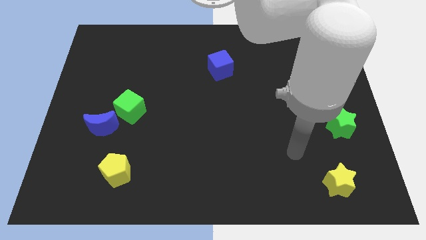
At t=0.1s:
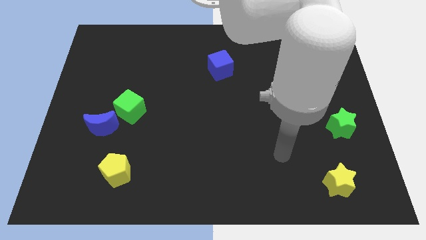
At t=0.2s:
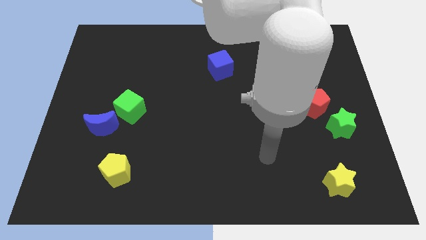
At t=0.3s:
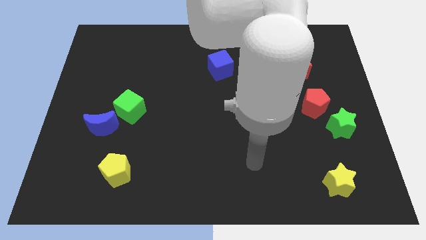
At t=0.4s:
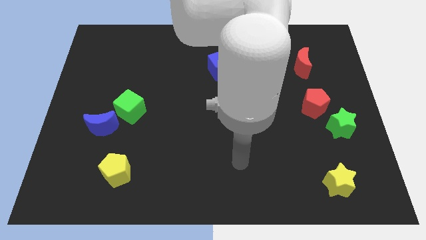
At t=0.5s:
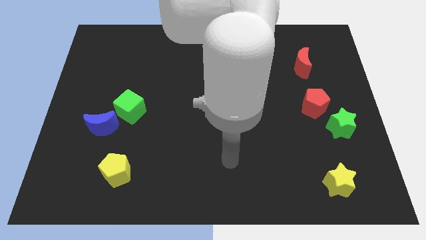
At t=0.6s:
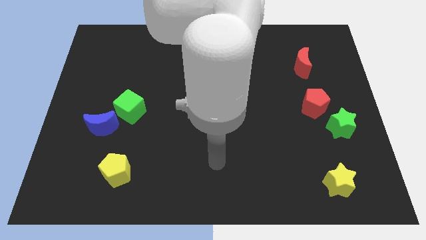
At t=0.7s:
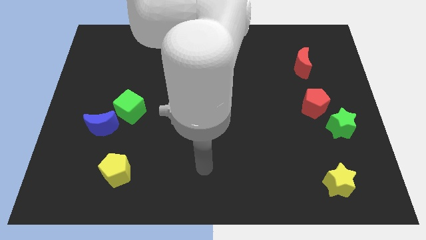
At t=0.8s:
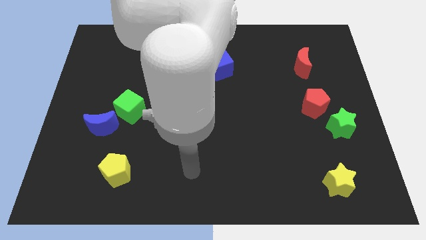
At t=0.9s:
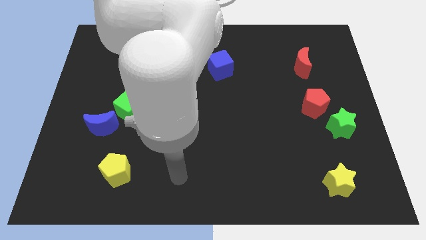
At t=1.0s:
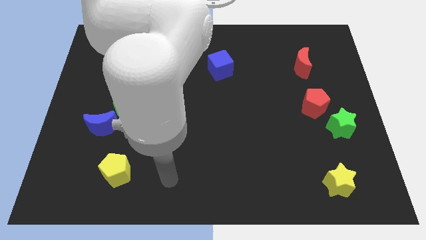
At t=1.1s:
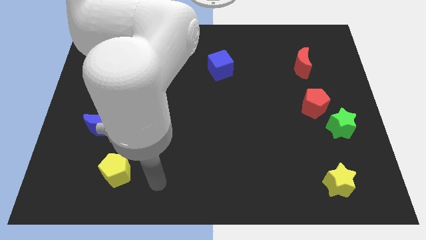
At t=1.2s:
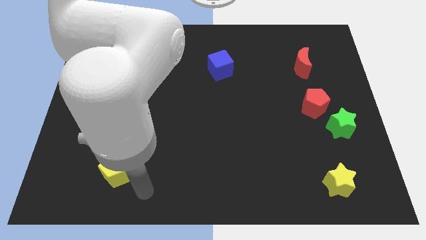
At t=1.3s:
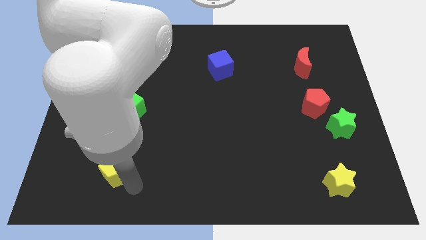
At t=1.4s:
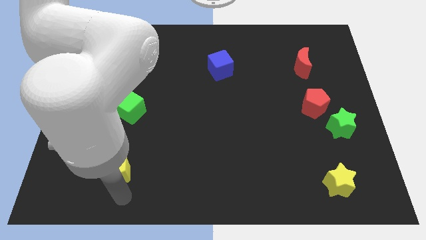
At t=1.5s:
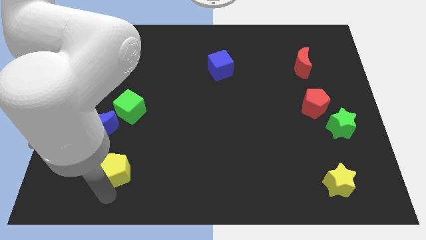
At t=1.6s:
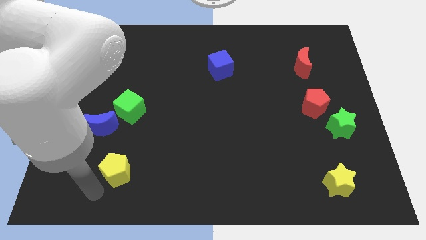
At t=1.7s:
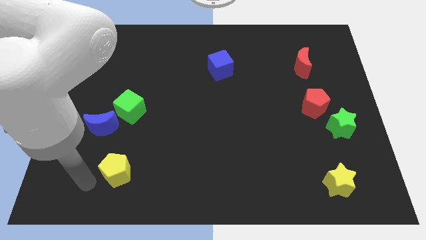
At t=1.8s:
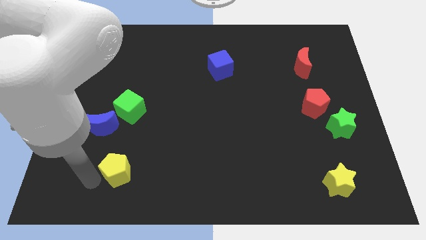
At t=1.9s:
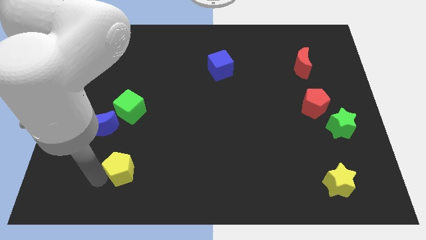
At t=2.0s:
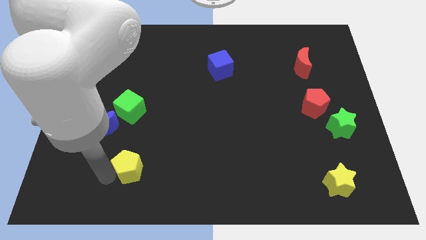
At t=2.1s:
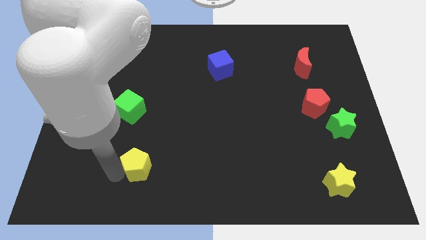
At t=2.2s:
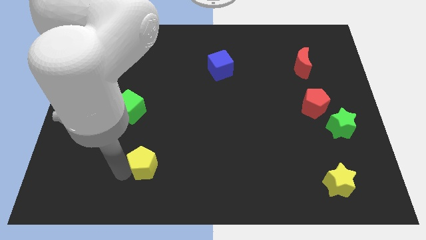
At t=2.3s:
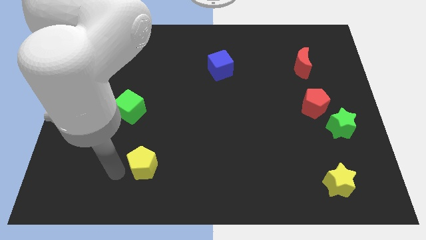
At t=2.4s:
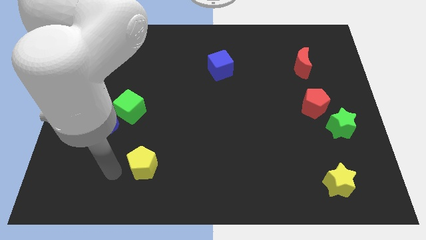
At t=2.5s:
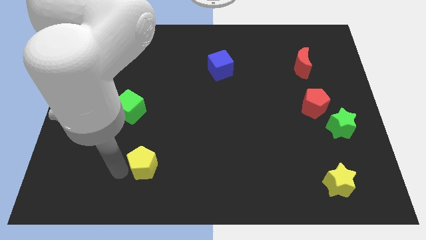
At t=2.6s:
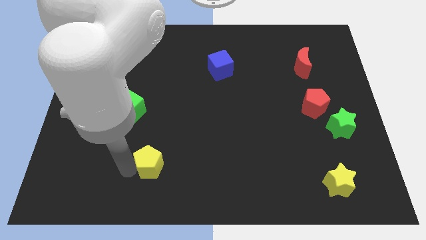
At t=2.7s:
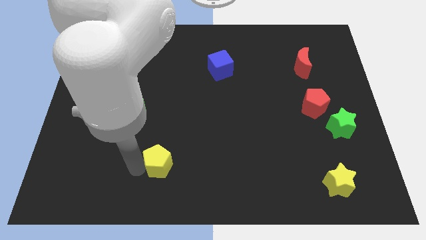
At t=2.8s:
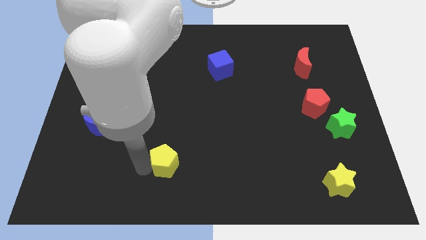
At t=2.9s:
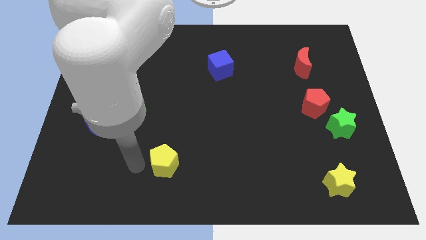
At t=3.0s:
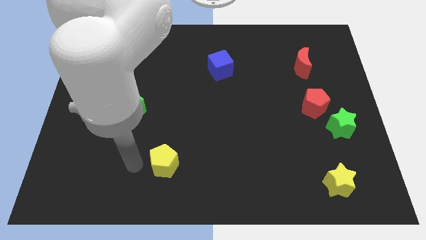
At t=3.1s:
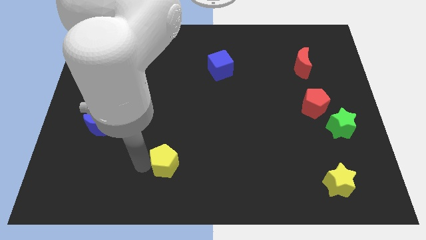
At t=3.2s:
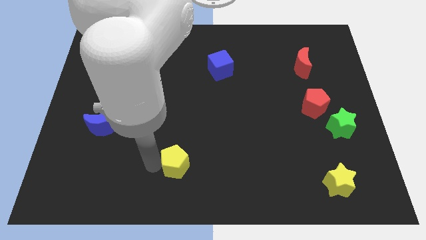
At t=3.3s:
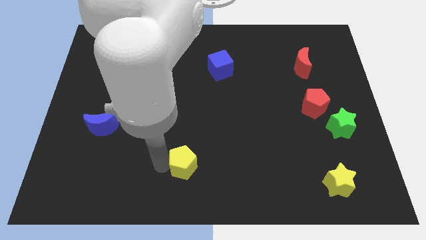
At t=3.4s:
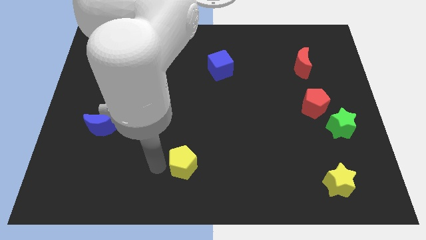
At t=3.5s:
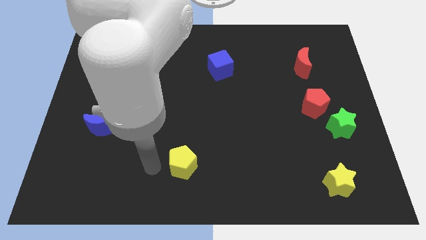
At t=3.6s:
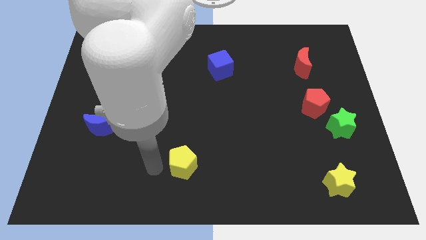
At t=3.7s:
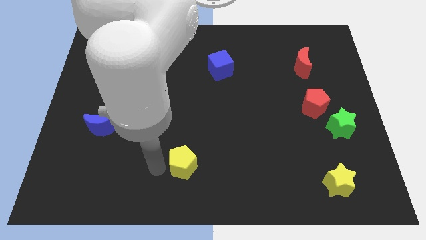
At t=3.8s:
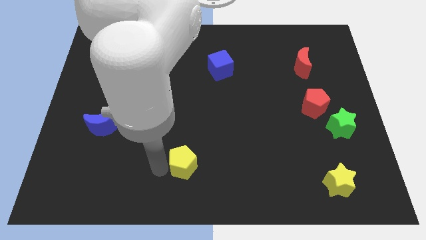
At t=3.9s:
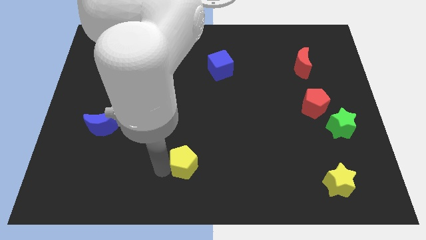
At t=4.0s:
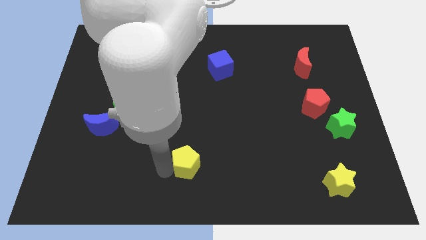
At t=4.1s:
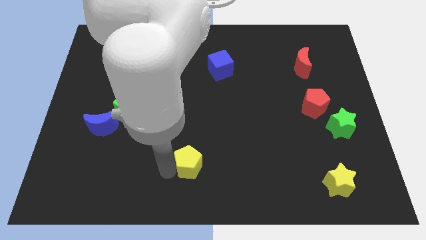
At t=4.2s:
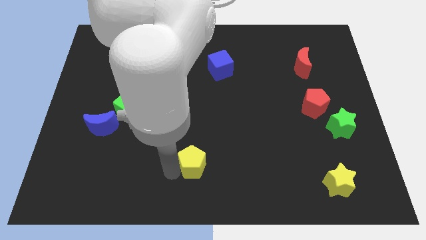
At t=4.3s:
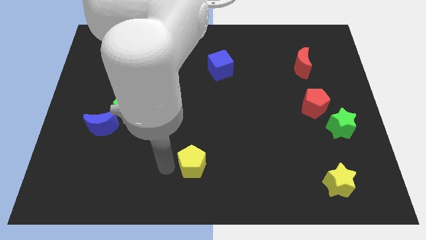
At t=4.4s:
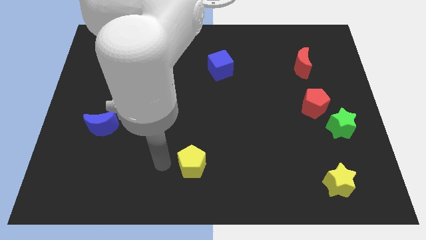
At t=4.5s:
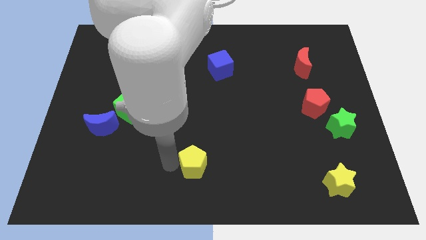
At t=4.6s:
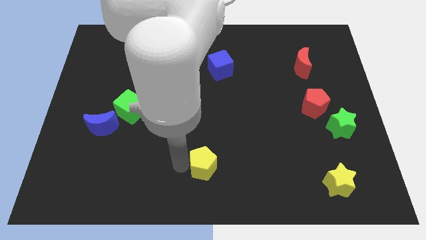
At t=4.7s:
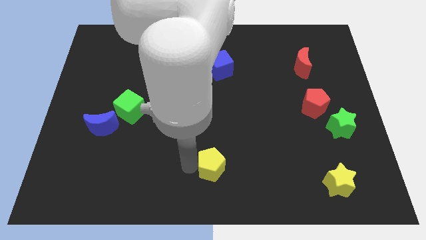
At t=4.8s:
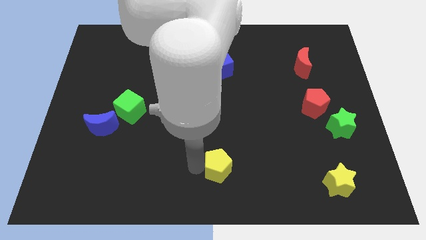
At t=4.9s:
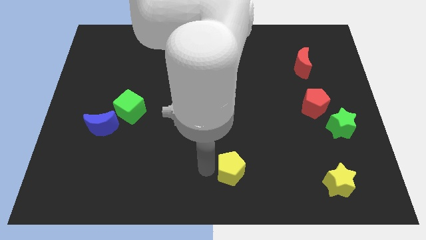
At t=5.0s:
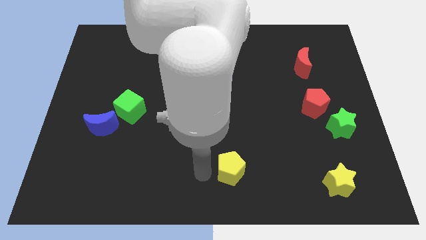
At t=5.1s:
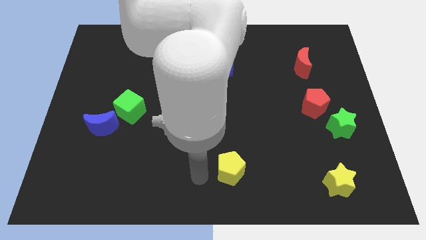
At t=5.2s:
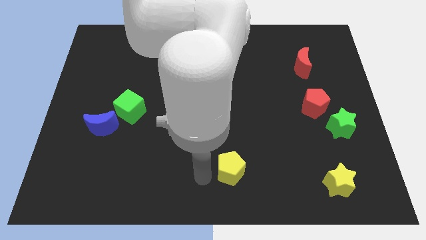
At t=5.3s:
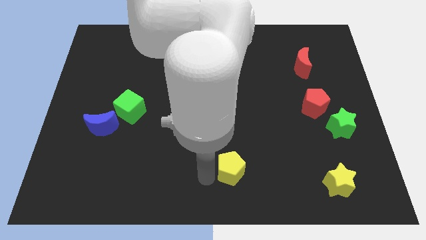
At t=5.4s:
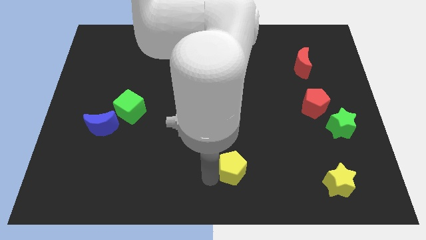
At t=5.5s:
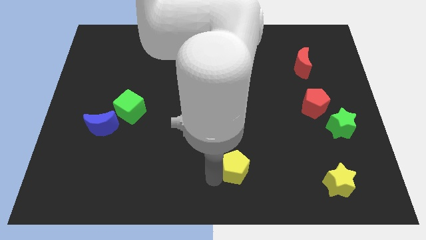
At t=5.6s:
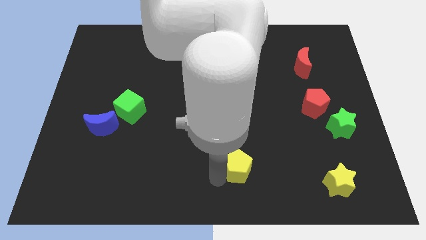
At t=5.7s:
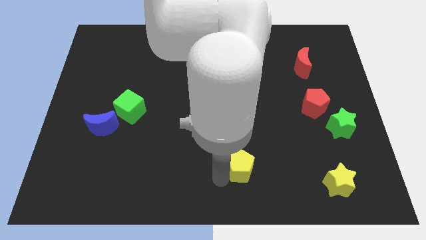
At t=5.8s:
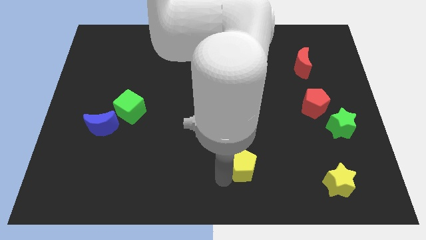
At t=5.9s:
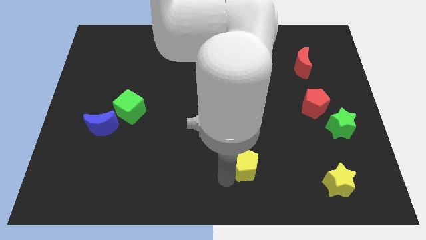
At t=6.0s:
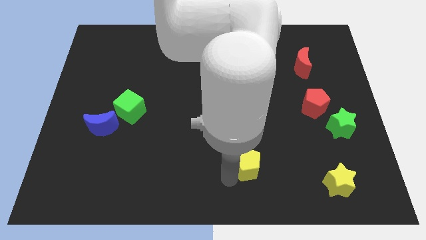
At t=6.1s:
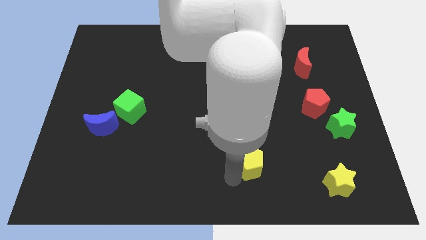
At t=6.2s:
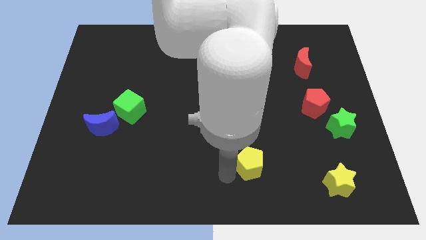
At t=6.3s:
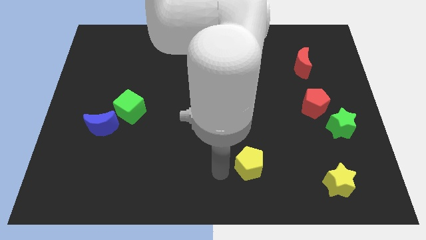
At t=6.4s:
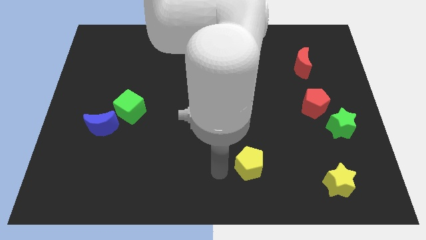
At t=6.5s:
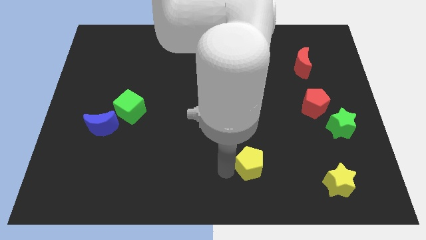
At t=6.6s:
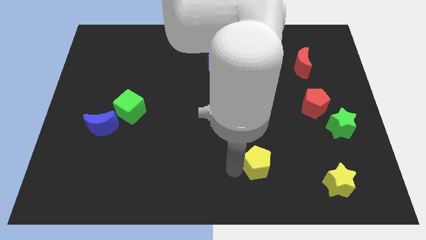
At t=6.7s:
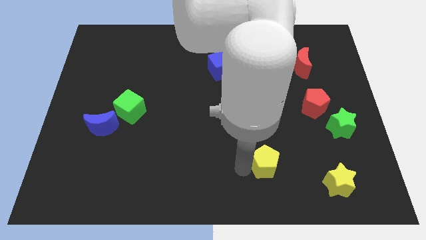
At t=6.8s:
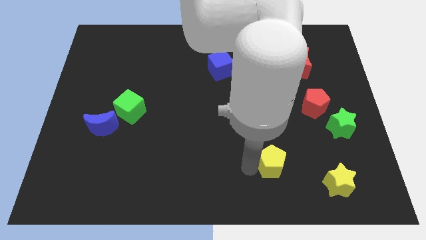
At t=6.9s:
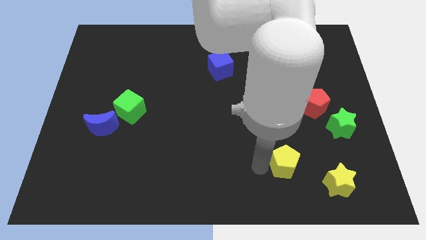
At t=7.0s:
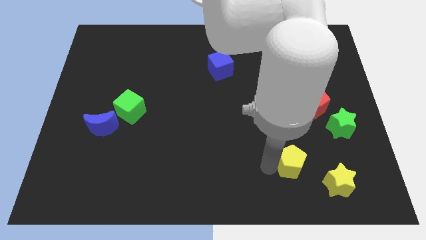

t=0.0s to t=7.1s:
move the yellow pentagon diagonally up and to the left of the yellow star
